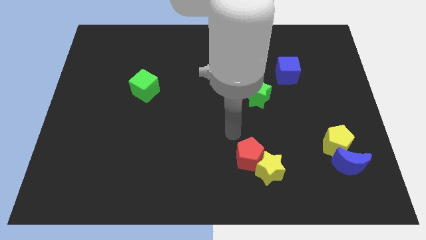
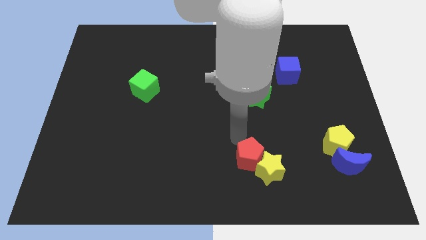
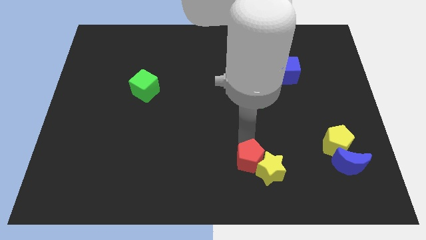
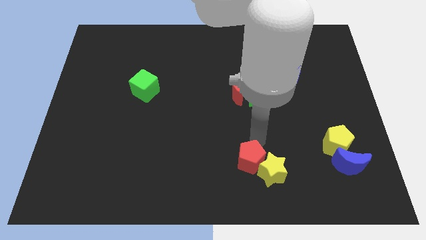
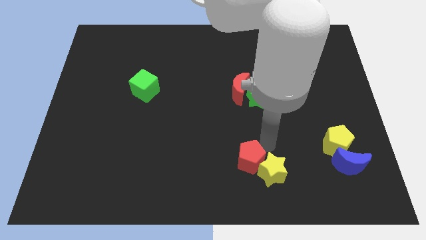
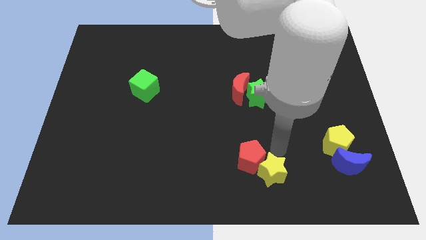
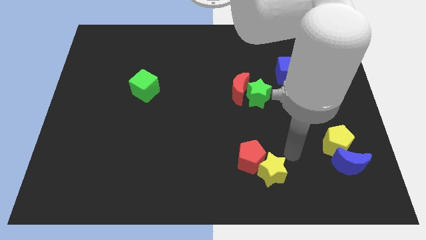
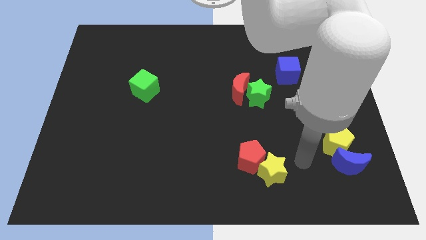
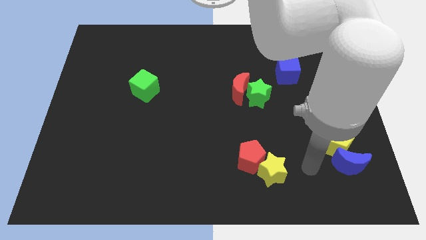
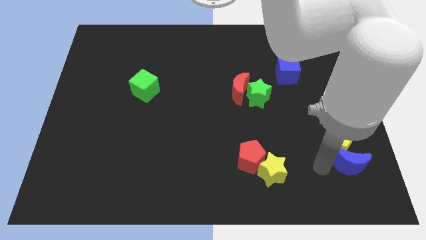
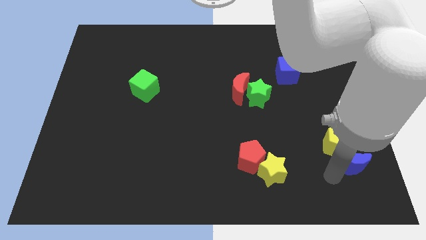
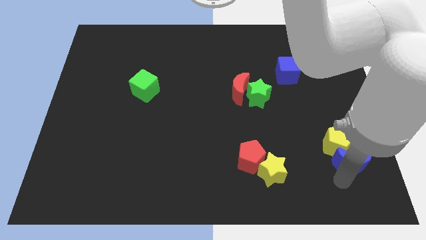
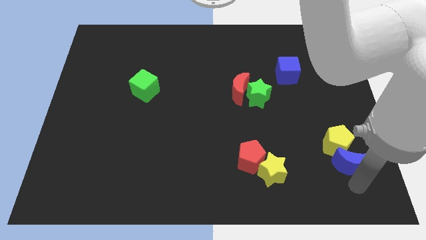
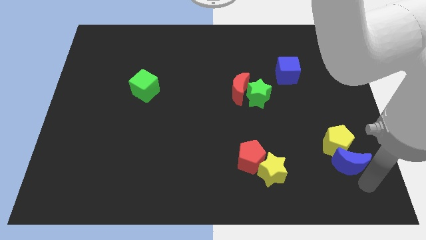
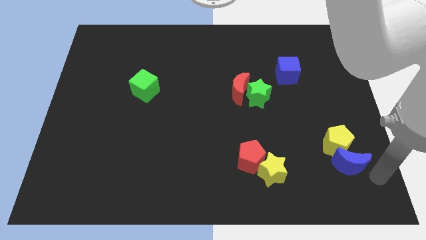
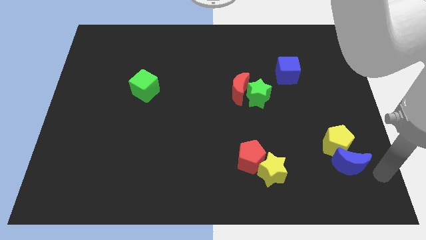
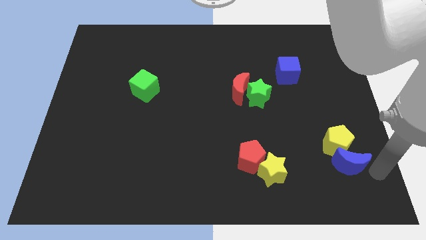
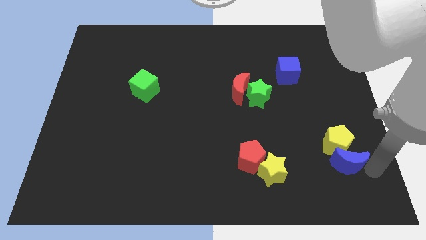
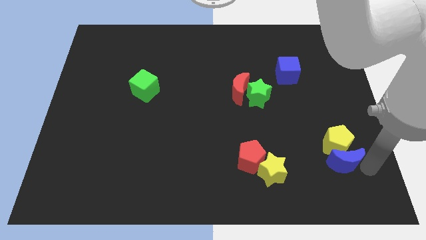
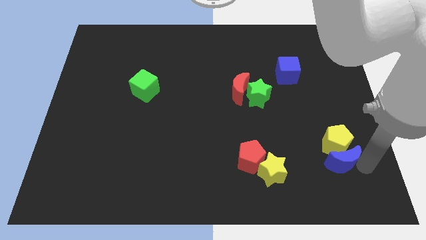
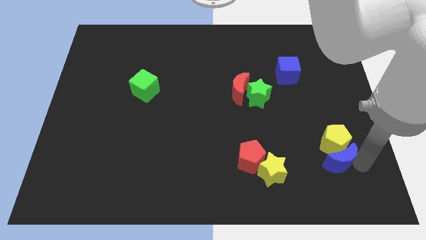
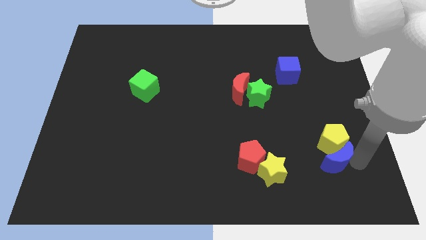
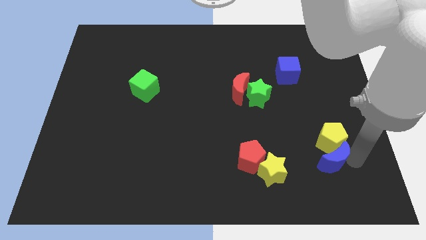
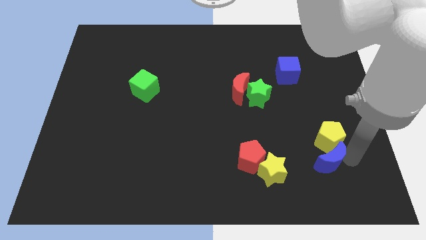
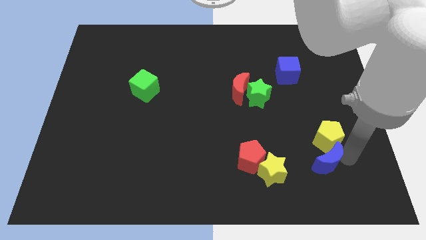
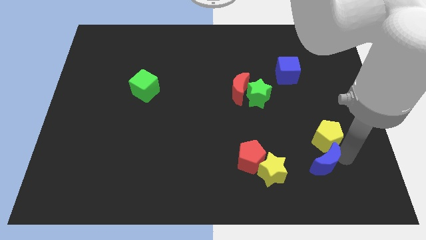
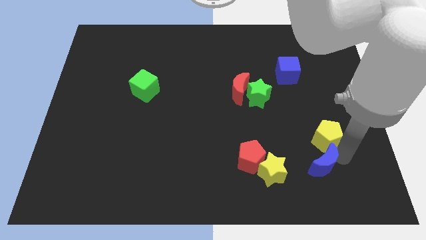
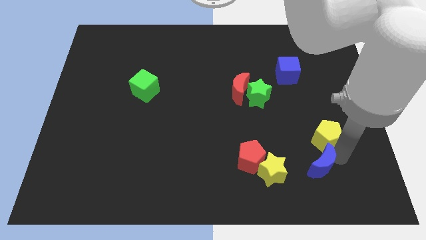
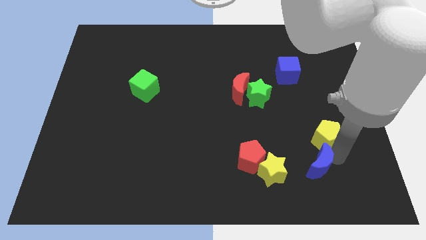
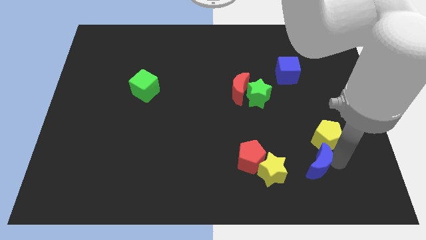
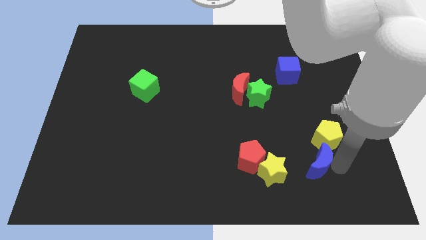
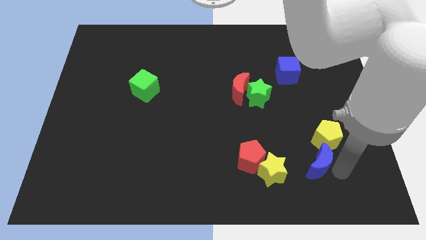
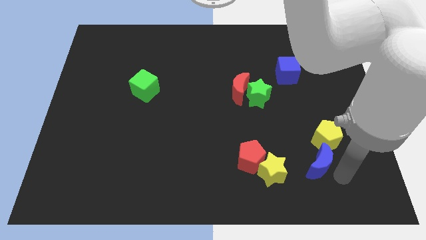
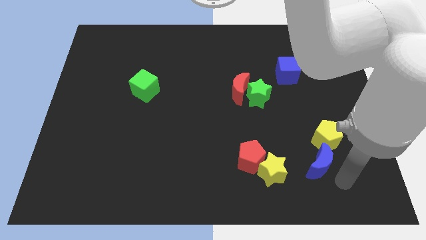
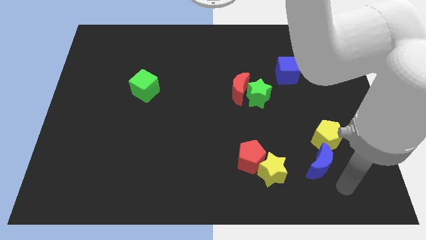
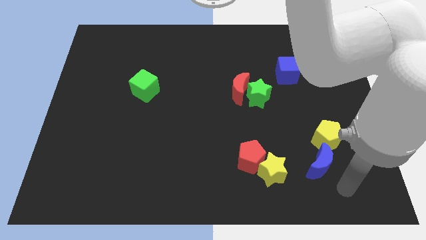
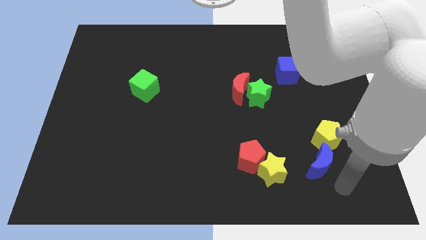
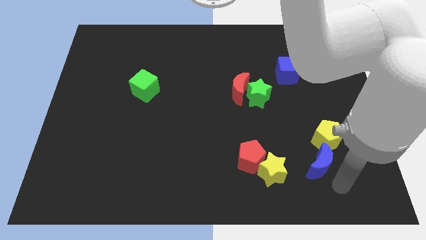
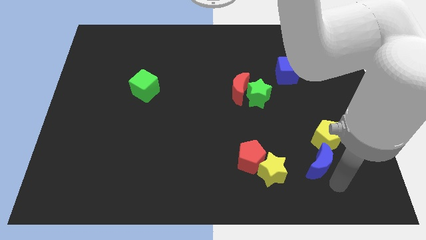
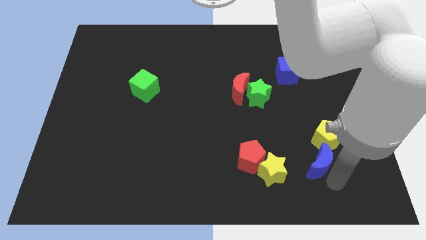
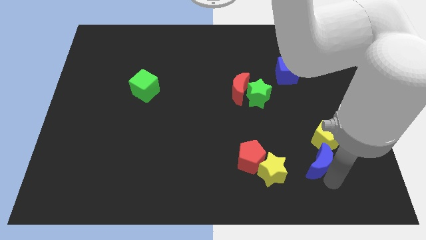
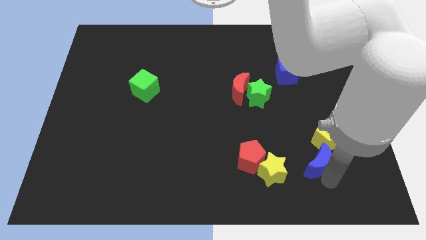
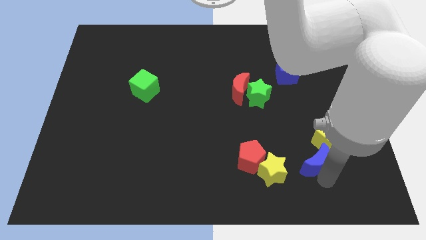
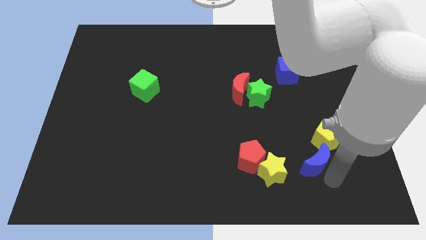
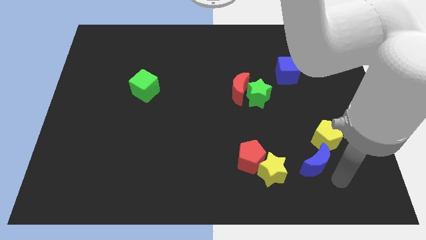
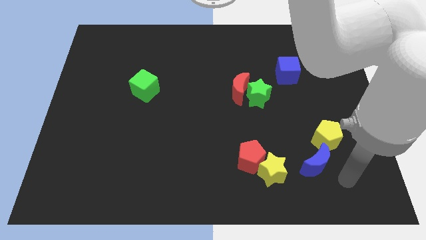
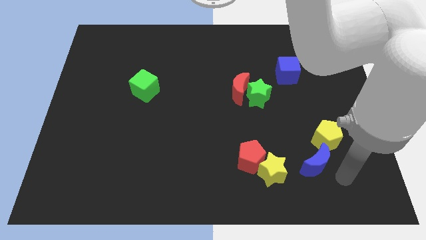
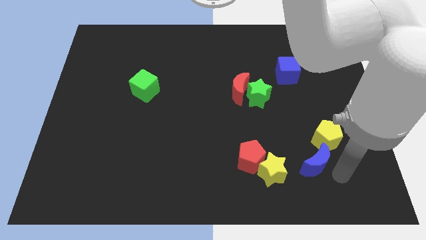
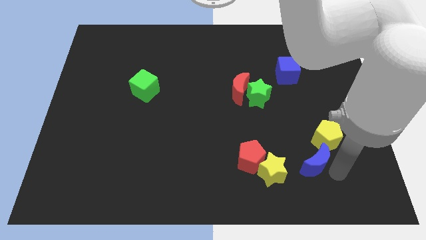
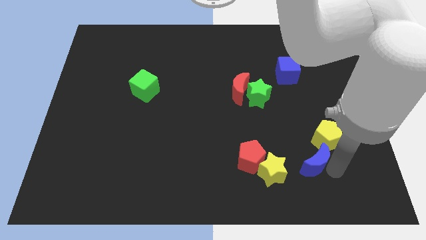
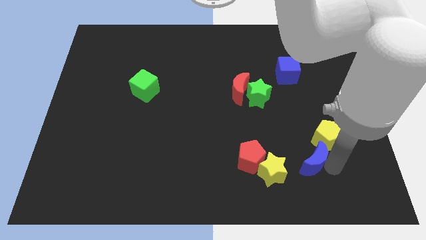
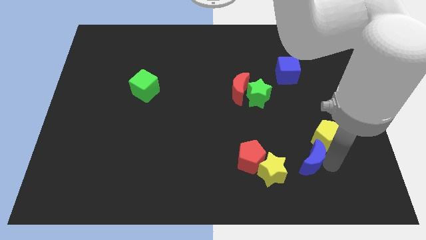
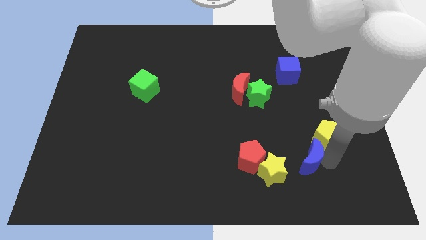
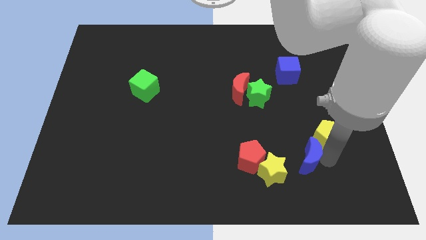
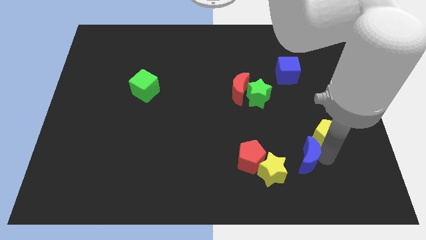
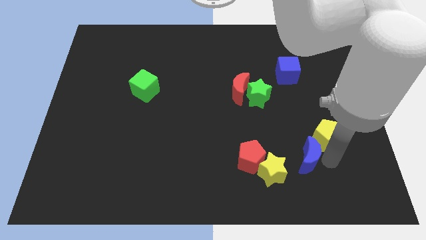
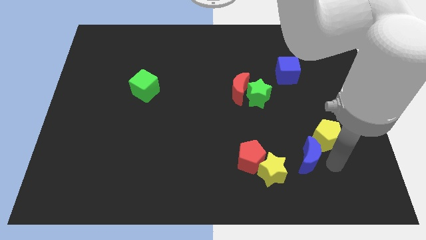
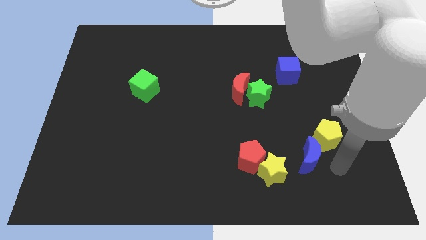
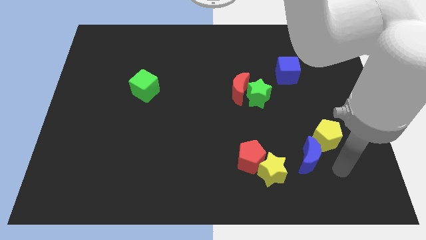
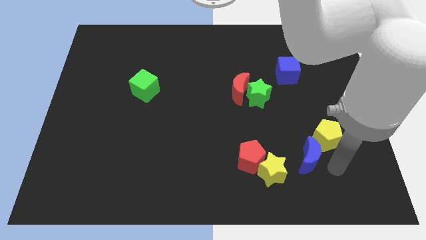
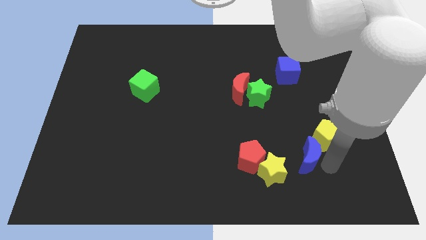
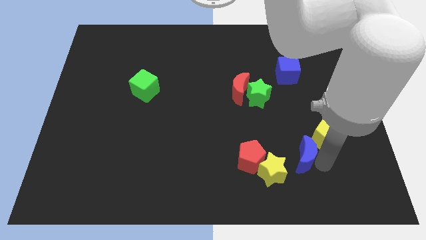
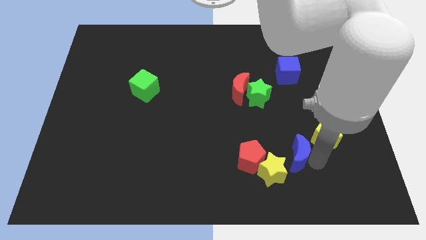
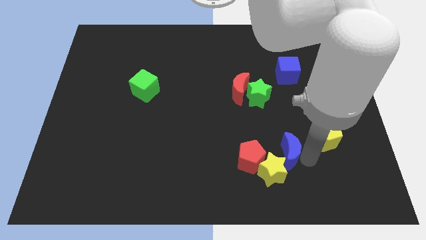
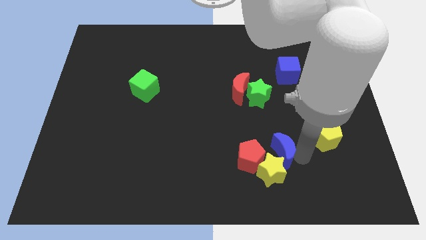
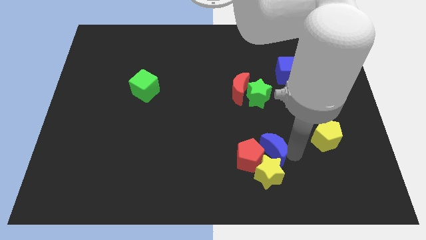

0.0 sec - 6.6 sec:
put the blue moon to the red pentagon

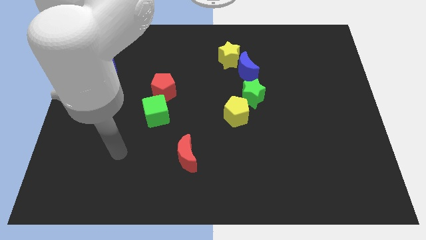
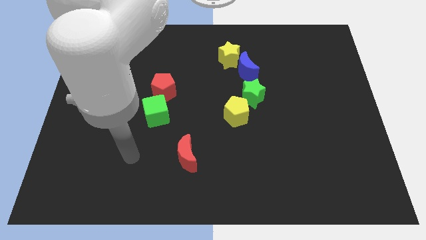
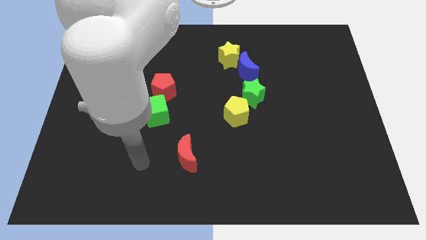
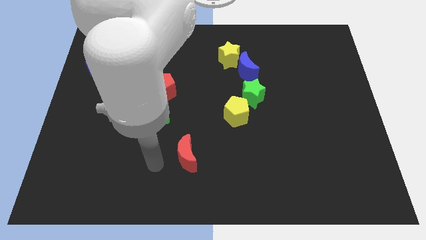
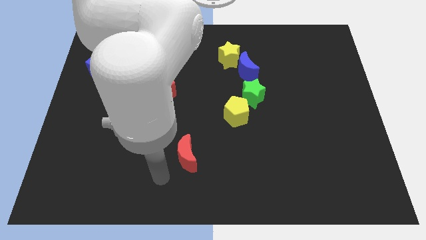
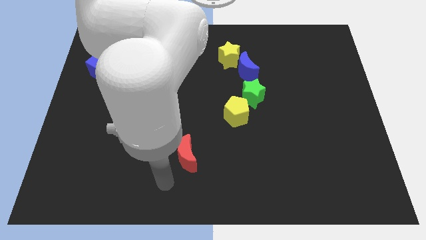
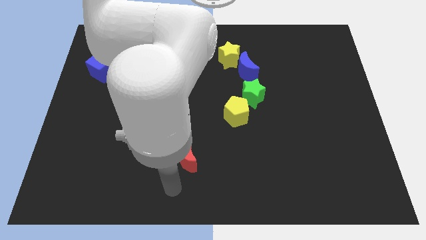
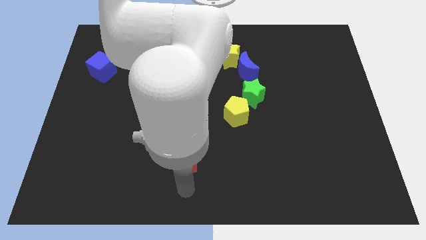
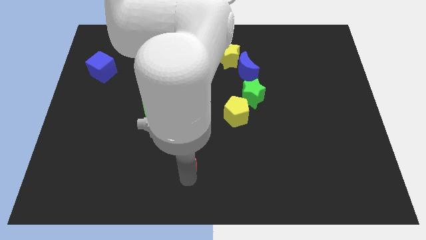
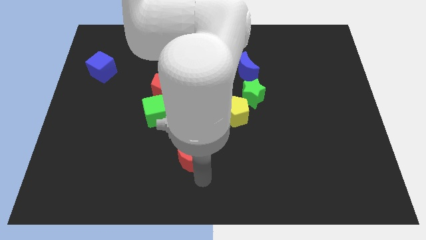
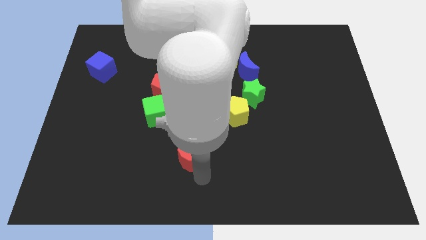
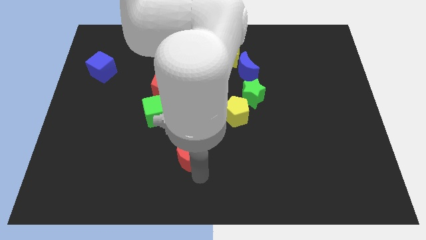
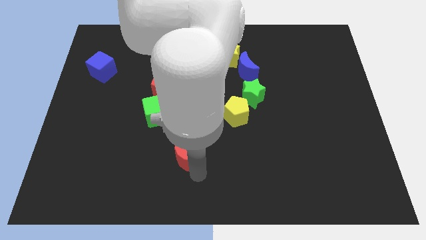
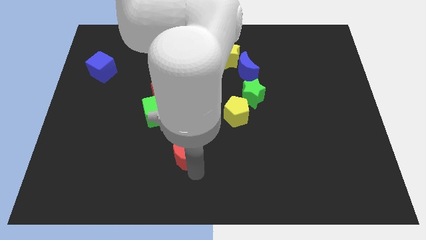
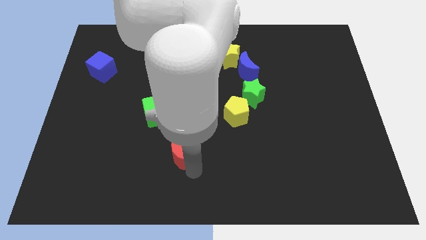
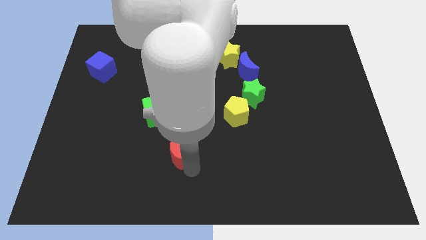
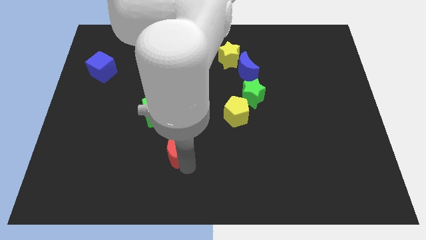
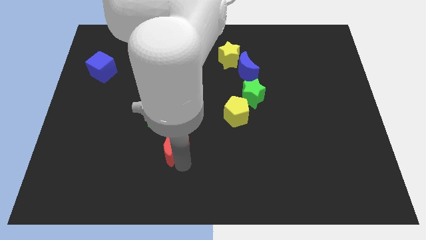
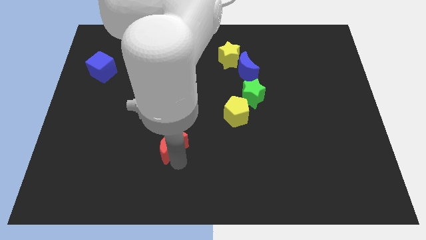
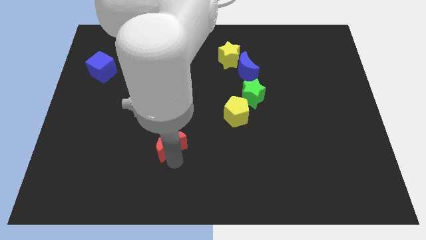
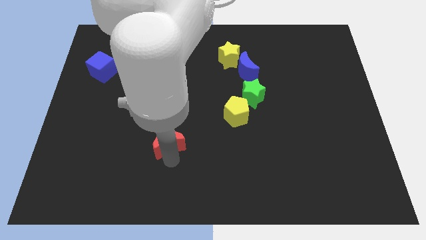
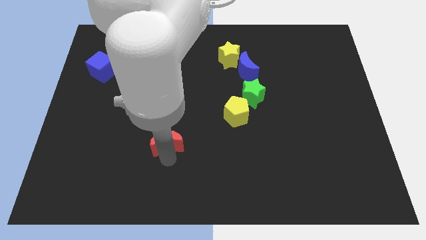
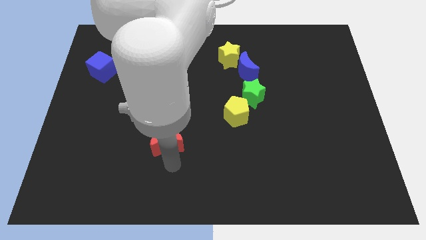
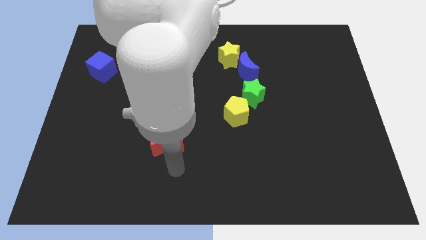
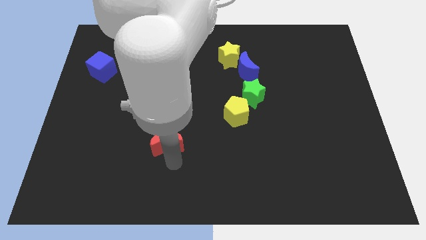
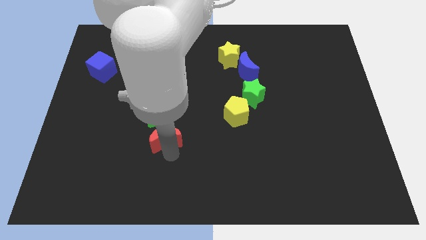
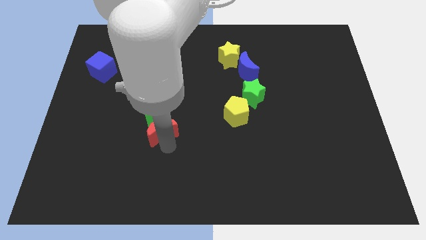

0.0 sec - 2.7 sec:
move the red moon to the green cube
